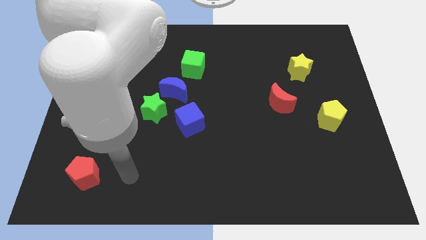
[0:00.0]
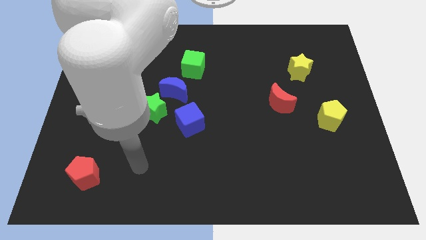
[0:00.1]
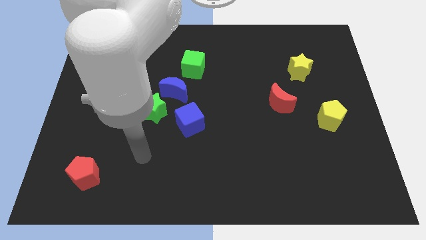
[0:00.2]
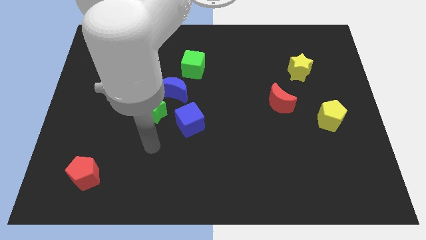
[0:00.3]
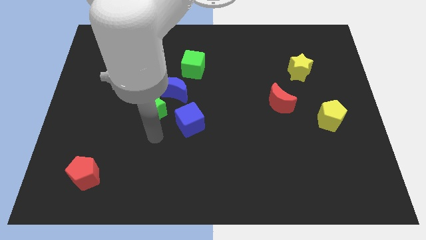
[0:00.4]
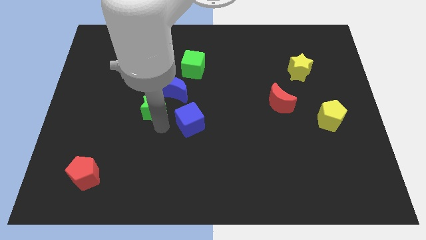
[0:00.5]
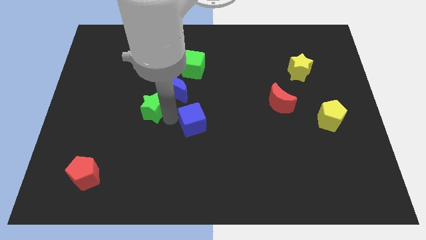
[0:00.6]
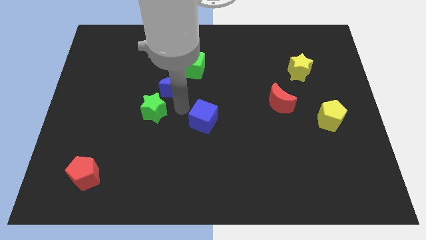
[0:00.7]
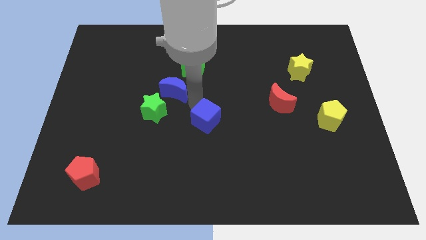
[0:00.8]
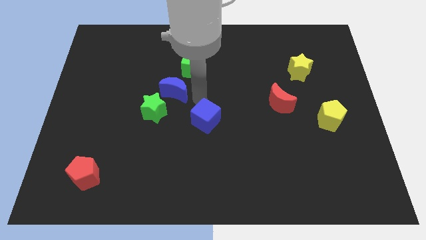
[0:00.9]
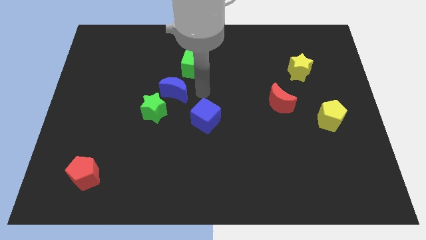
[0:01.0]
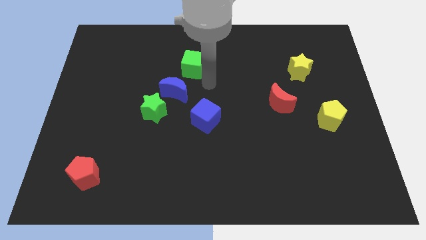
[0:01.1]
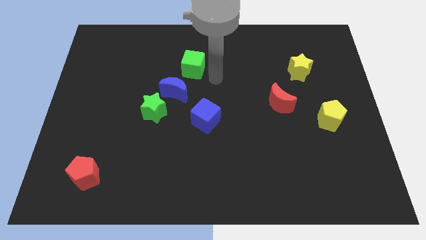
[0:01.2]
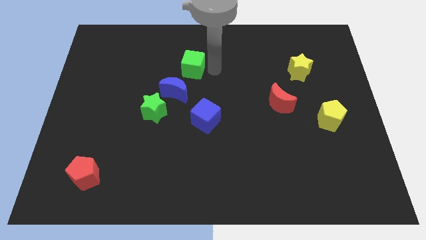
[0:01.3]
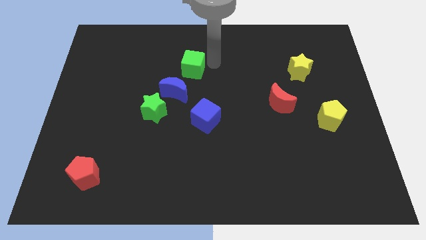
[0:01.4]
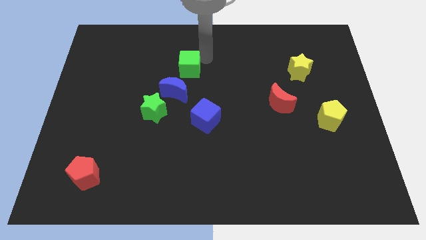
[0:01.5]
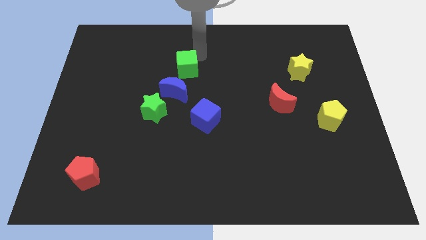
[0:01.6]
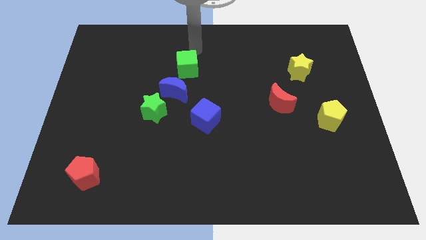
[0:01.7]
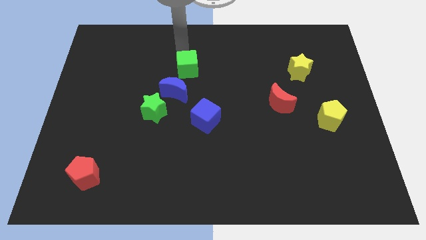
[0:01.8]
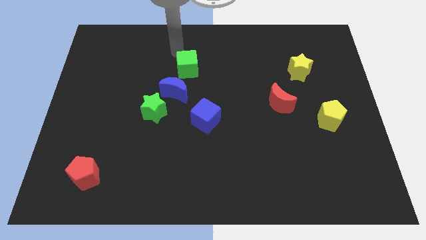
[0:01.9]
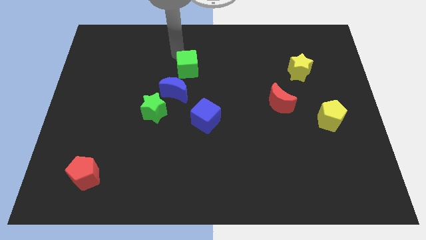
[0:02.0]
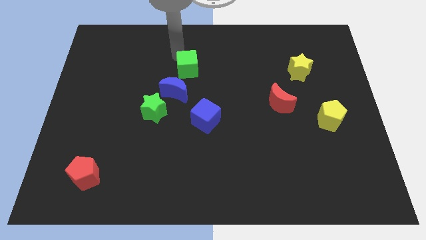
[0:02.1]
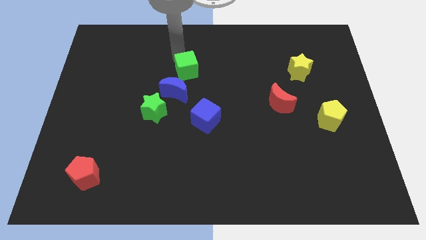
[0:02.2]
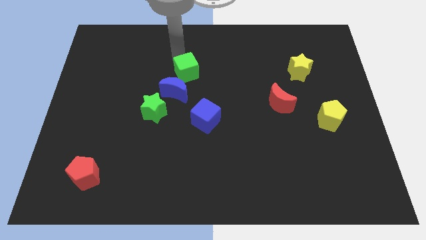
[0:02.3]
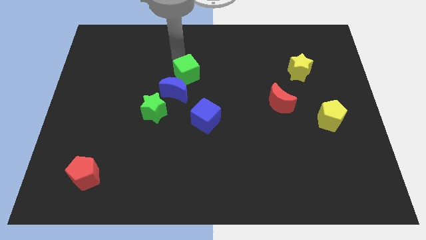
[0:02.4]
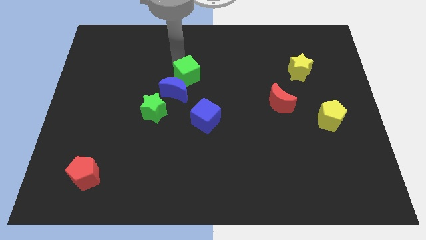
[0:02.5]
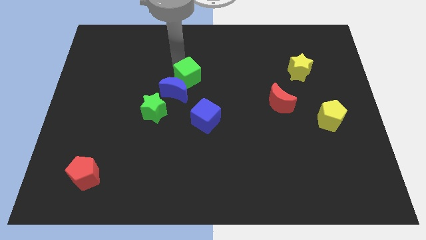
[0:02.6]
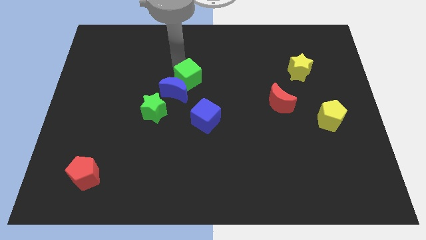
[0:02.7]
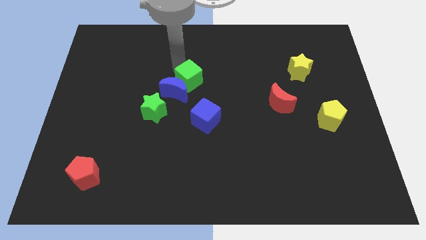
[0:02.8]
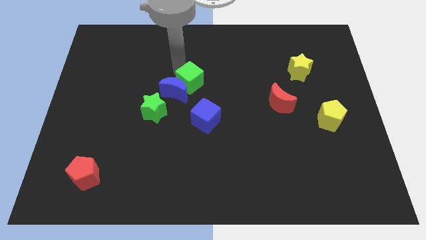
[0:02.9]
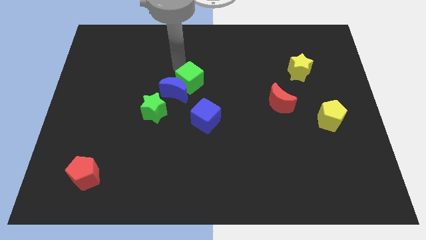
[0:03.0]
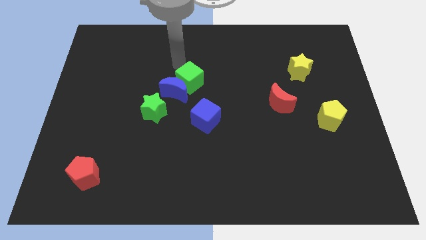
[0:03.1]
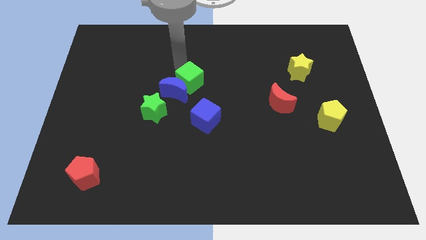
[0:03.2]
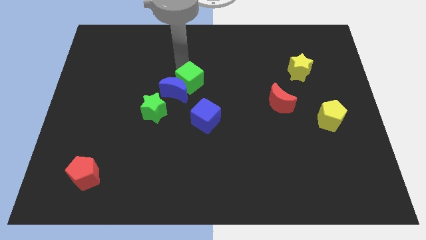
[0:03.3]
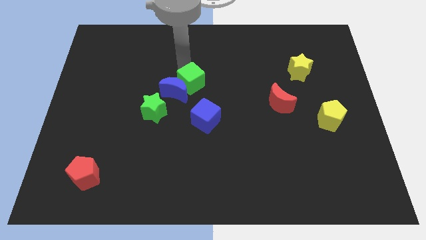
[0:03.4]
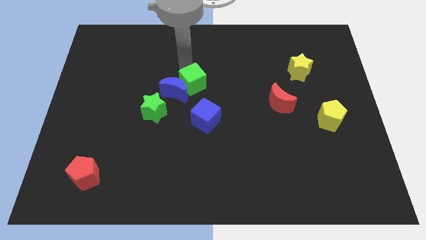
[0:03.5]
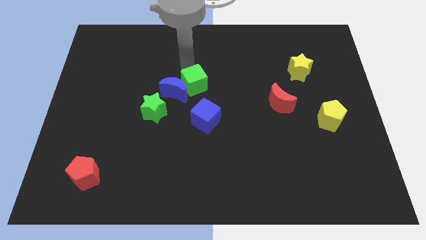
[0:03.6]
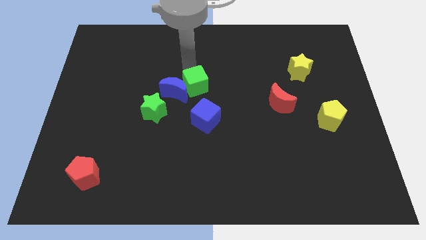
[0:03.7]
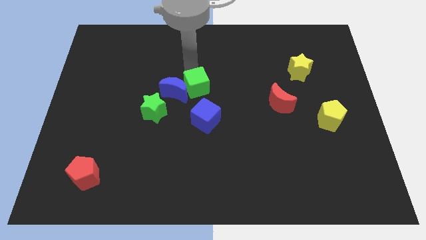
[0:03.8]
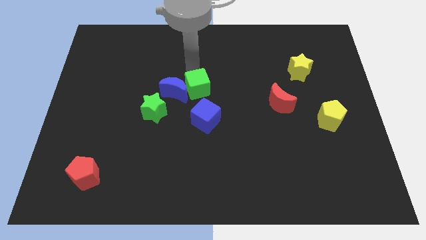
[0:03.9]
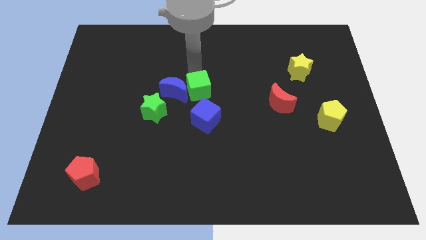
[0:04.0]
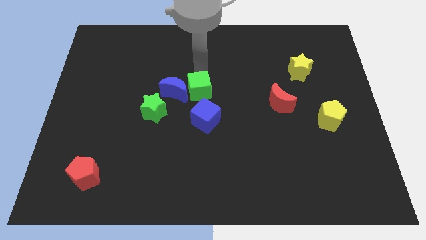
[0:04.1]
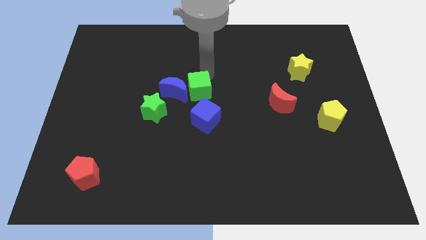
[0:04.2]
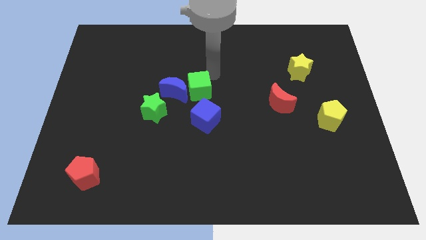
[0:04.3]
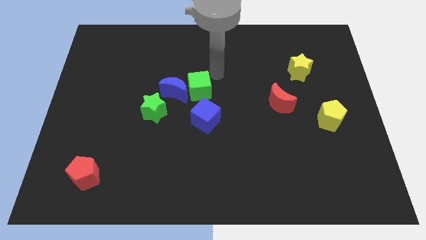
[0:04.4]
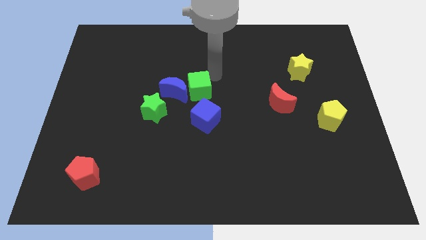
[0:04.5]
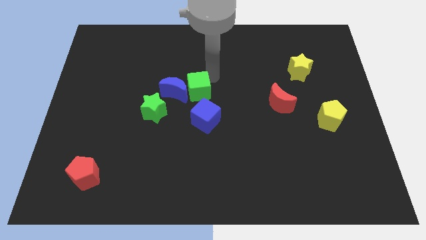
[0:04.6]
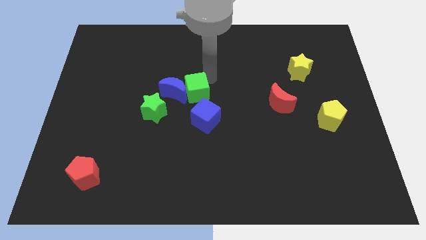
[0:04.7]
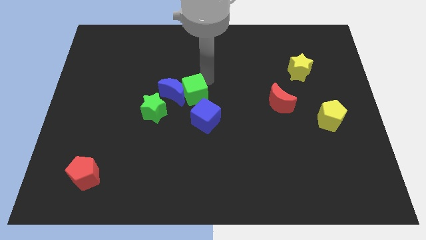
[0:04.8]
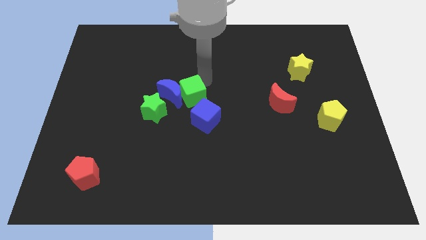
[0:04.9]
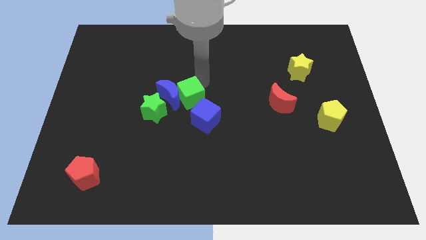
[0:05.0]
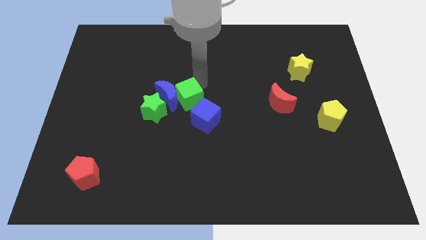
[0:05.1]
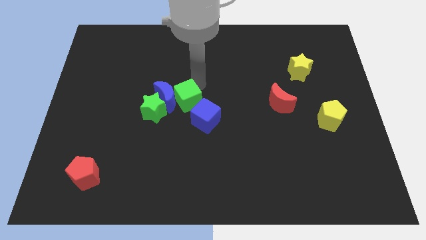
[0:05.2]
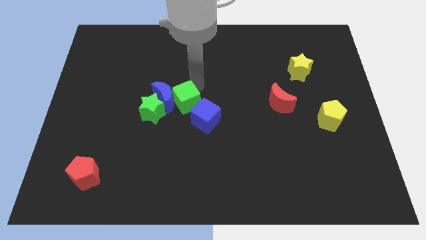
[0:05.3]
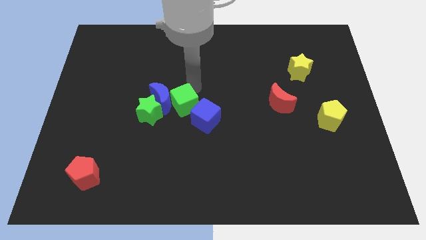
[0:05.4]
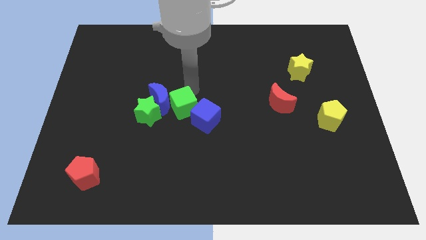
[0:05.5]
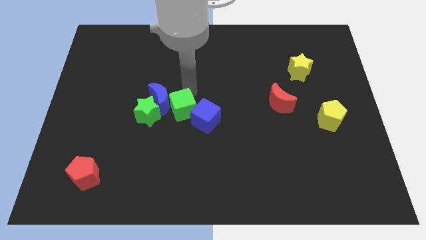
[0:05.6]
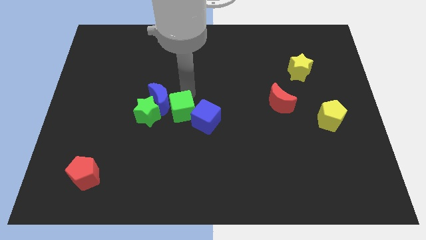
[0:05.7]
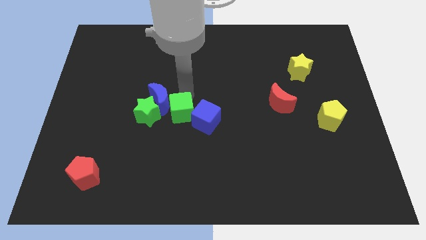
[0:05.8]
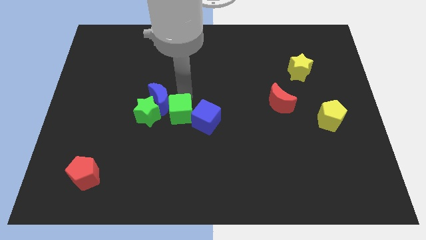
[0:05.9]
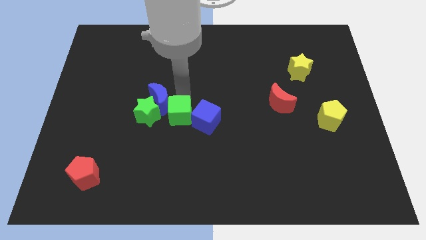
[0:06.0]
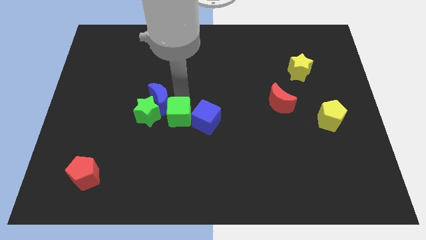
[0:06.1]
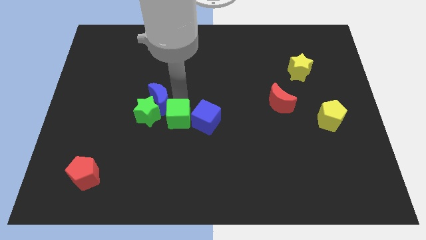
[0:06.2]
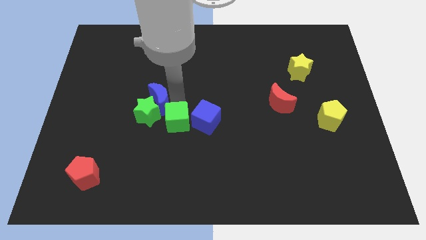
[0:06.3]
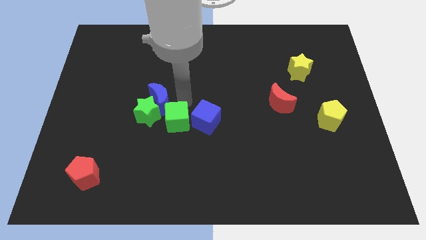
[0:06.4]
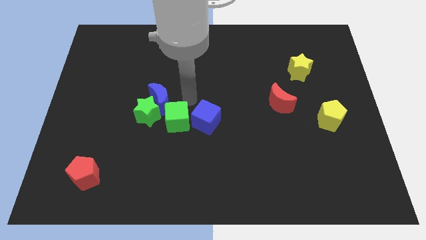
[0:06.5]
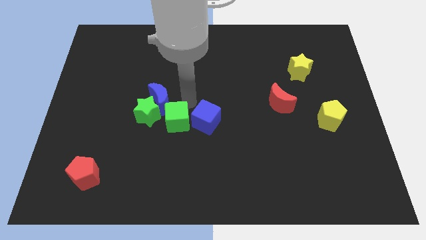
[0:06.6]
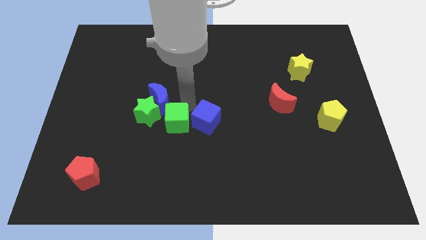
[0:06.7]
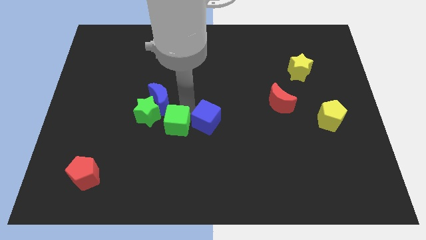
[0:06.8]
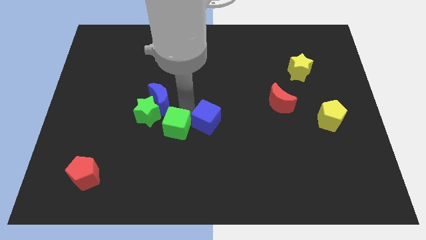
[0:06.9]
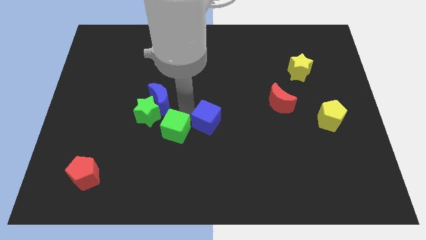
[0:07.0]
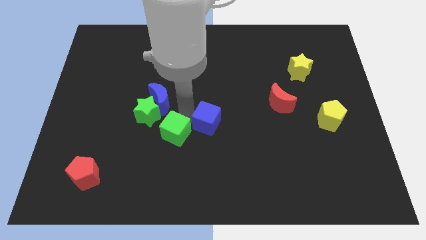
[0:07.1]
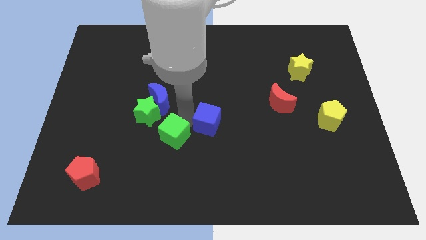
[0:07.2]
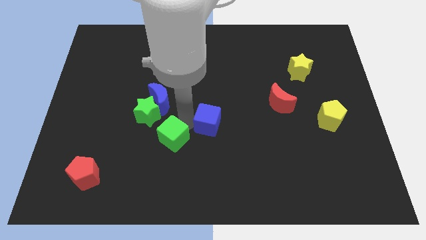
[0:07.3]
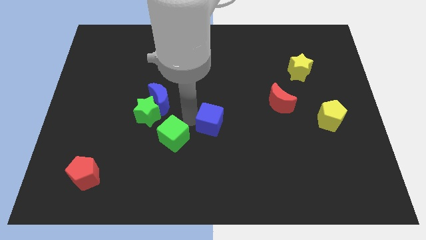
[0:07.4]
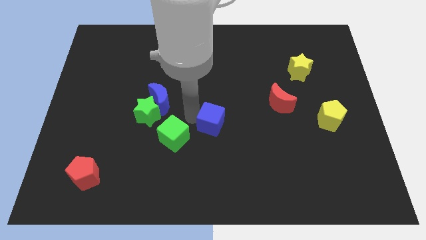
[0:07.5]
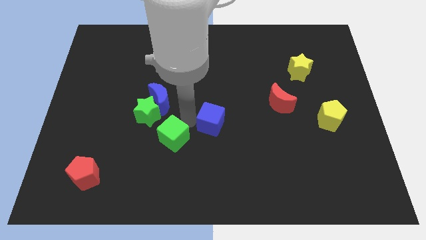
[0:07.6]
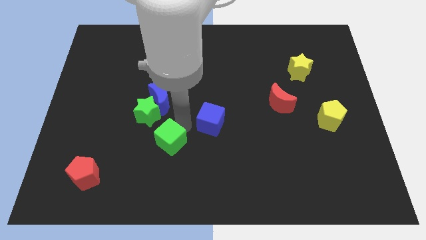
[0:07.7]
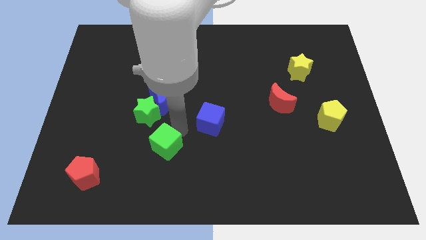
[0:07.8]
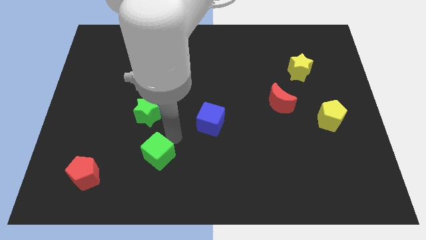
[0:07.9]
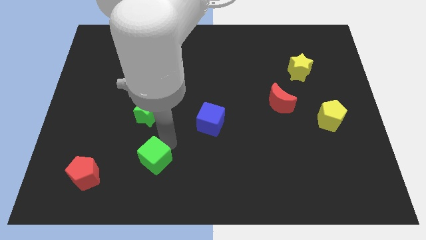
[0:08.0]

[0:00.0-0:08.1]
slide the green cube to the right side of the red pentagon
